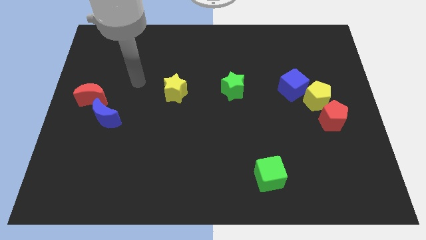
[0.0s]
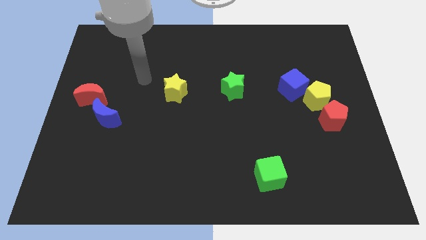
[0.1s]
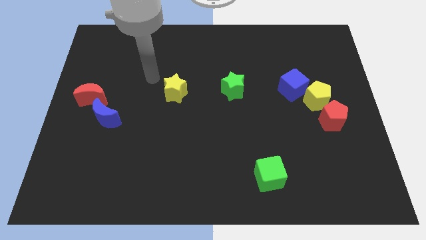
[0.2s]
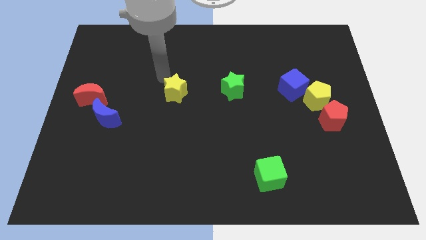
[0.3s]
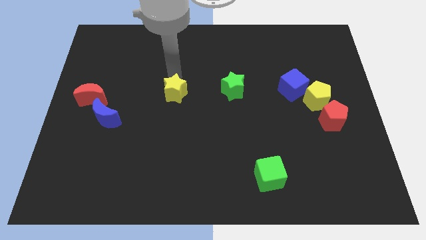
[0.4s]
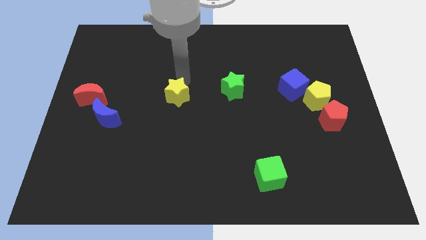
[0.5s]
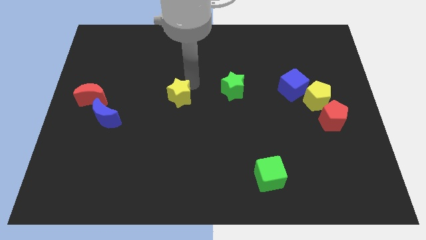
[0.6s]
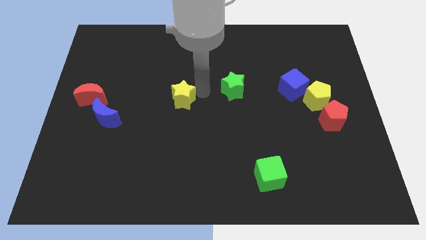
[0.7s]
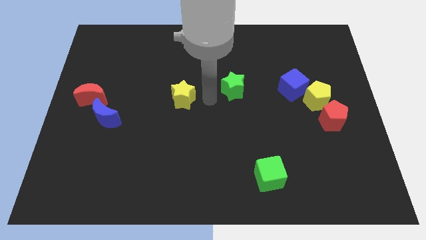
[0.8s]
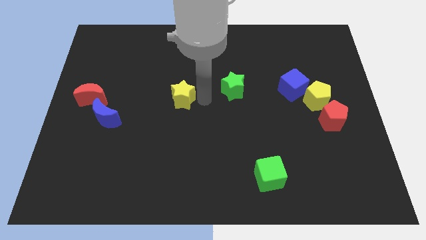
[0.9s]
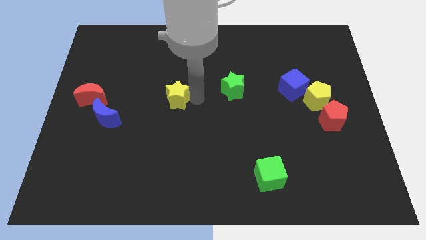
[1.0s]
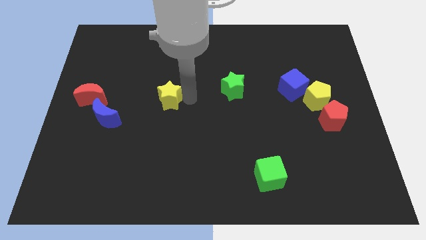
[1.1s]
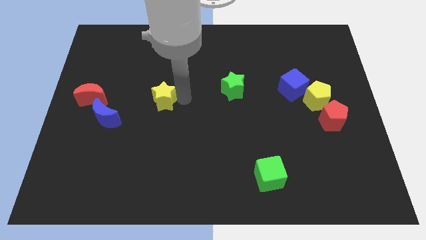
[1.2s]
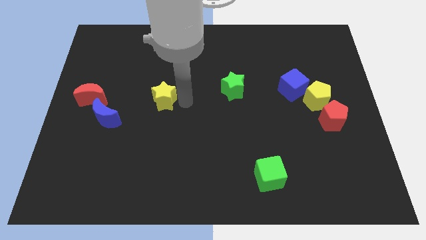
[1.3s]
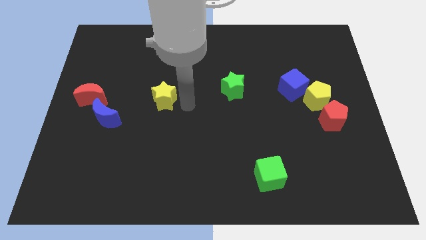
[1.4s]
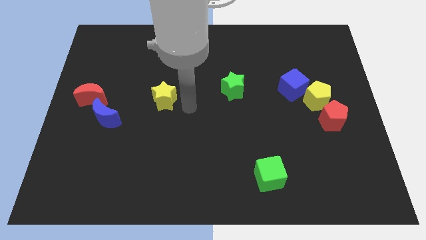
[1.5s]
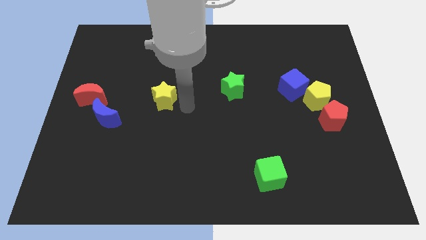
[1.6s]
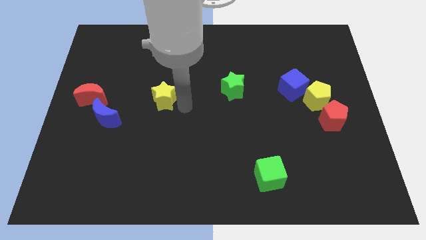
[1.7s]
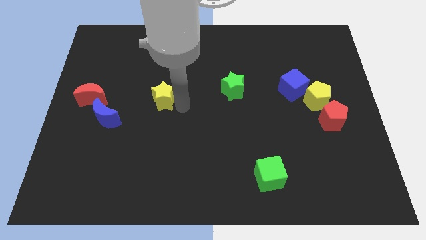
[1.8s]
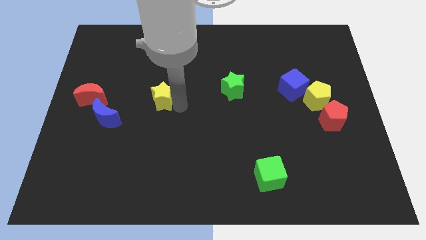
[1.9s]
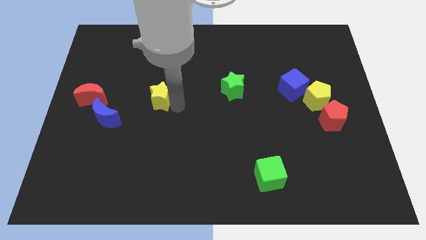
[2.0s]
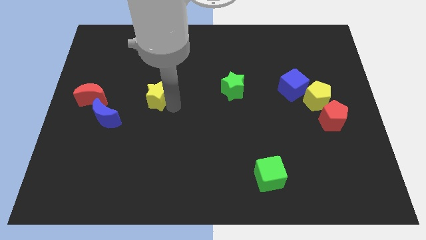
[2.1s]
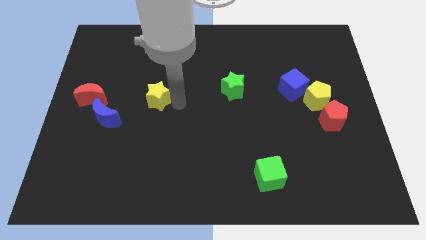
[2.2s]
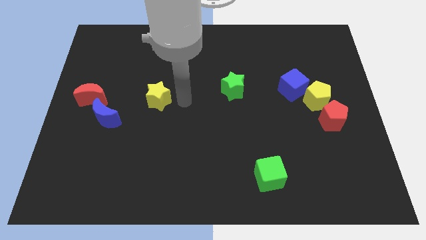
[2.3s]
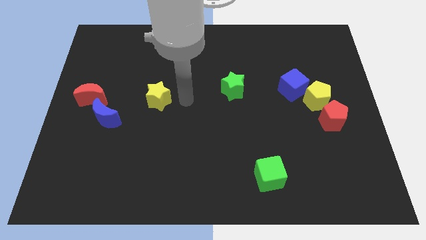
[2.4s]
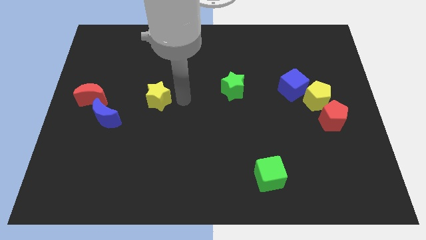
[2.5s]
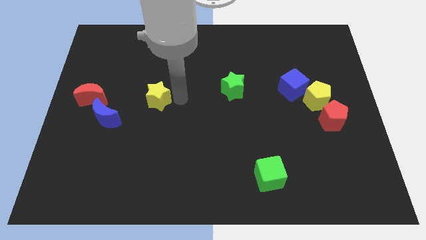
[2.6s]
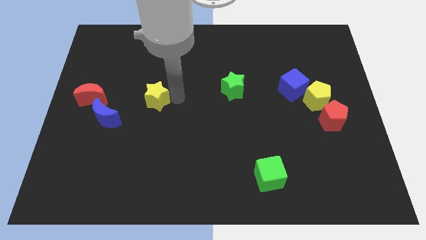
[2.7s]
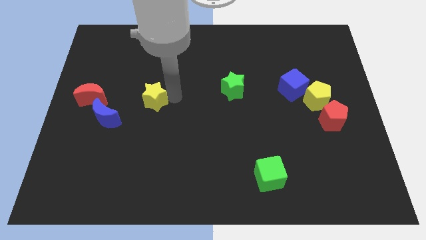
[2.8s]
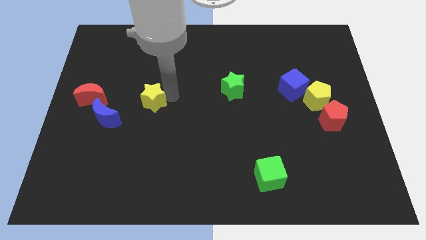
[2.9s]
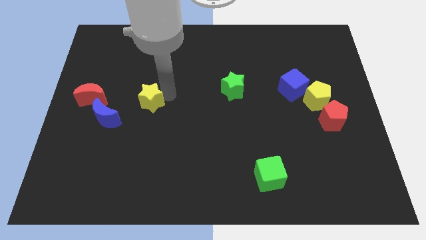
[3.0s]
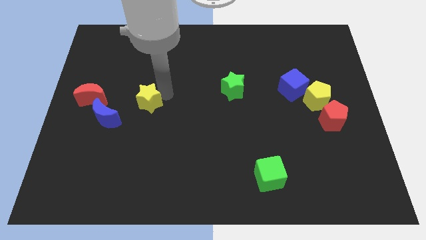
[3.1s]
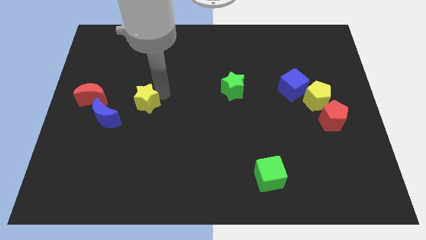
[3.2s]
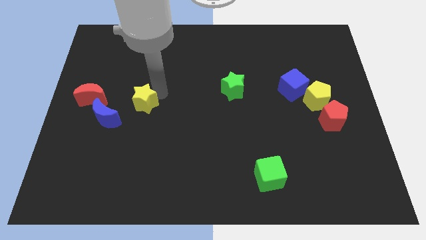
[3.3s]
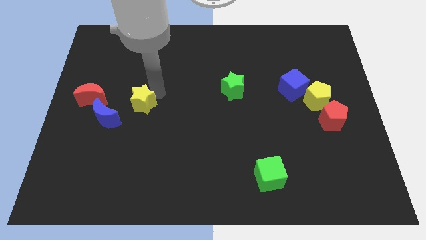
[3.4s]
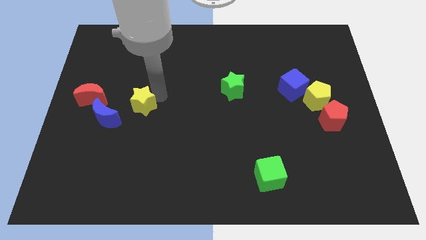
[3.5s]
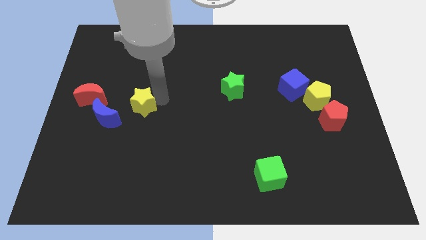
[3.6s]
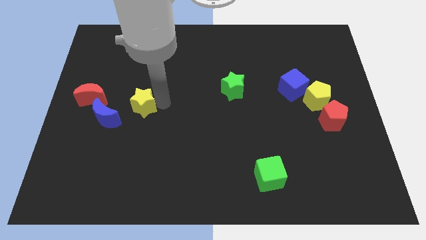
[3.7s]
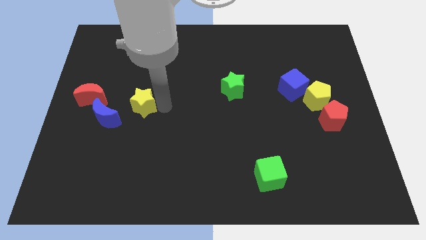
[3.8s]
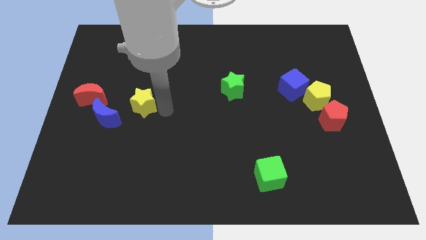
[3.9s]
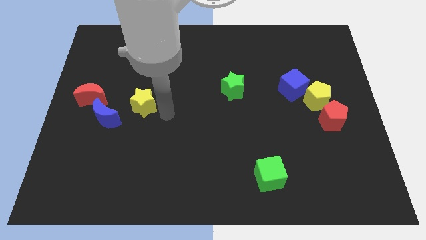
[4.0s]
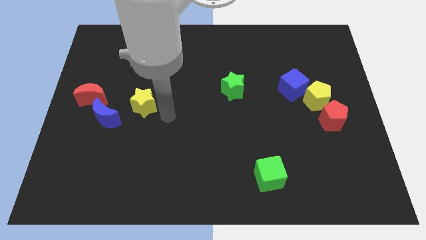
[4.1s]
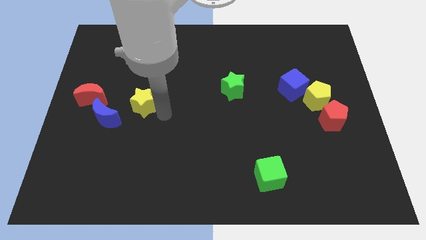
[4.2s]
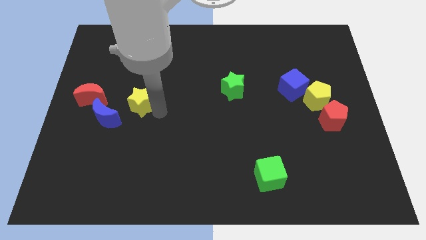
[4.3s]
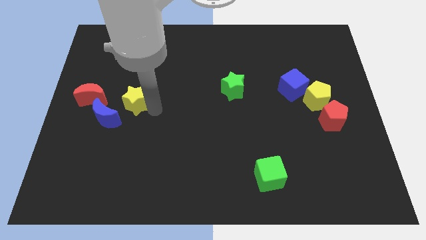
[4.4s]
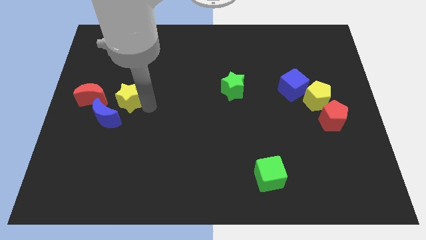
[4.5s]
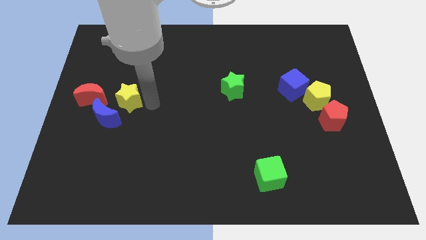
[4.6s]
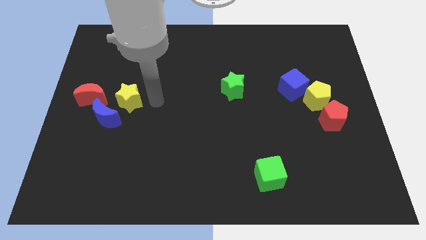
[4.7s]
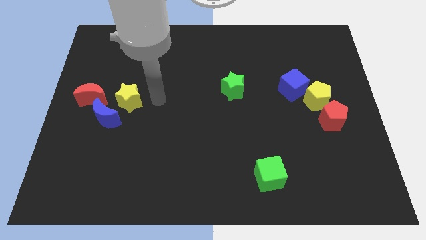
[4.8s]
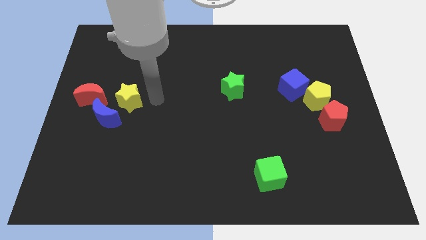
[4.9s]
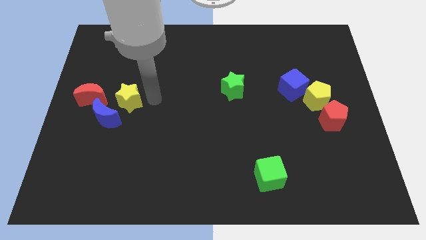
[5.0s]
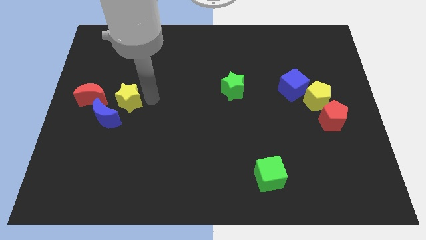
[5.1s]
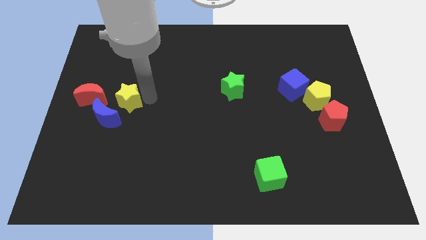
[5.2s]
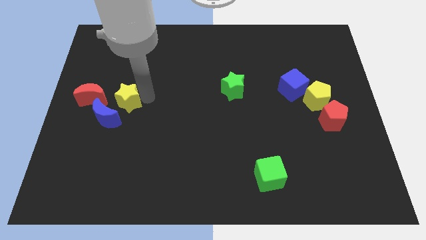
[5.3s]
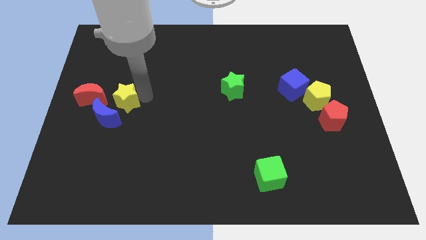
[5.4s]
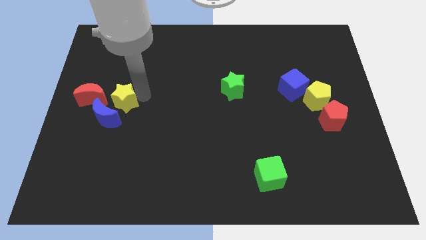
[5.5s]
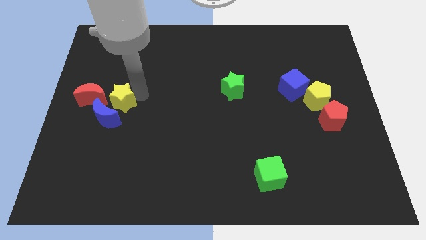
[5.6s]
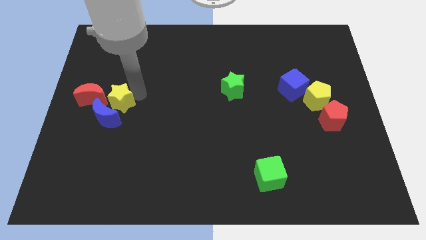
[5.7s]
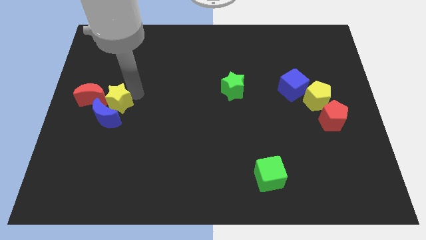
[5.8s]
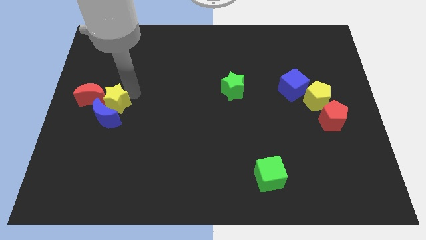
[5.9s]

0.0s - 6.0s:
slide the yellow star towards the red moon

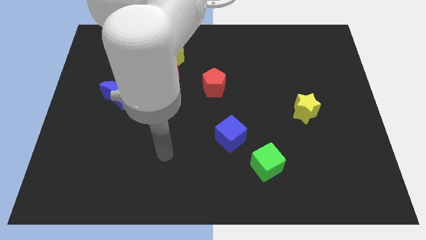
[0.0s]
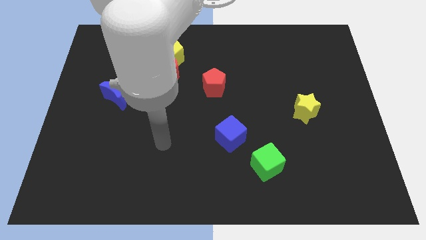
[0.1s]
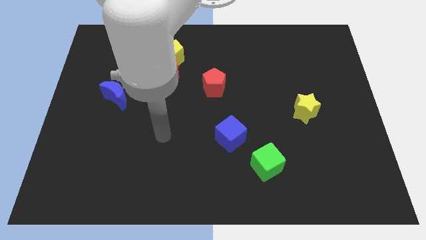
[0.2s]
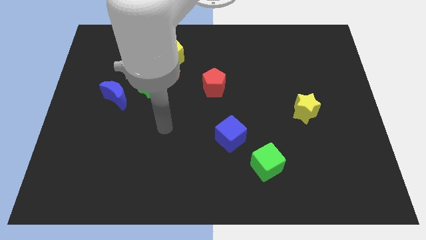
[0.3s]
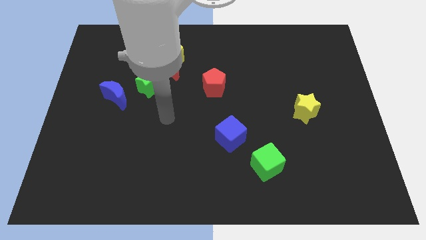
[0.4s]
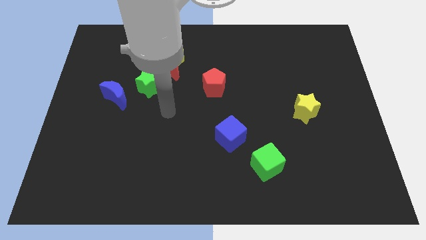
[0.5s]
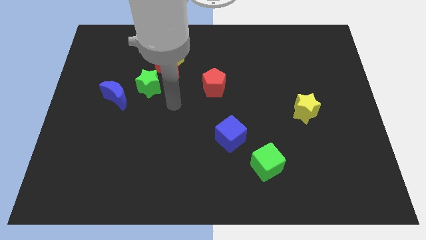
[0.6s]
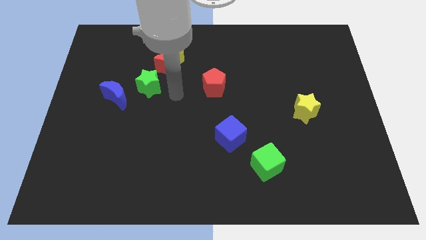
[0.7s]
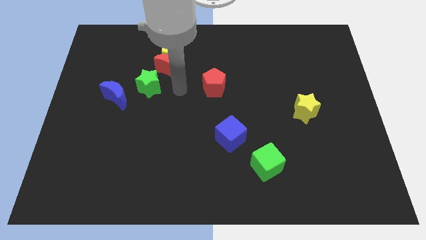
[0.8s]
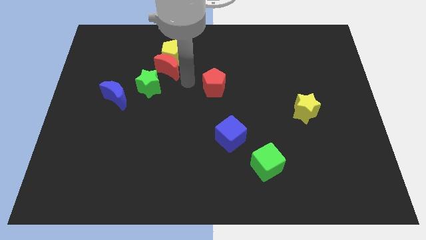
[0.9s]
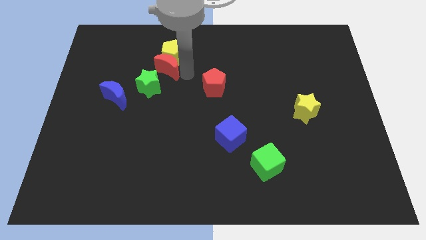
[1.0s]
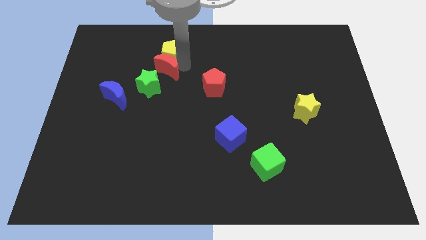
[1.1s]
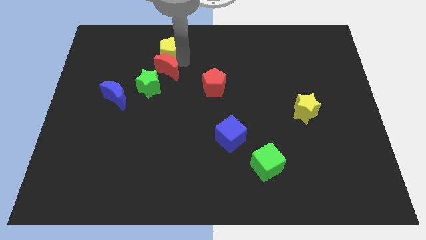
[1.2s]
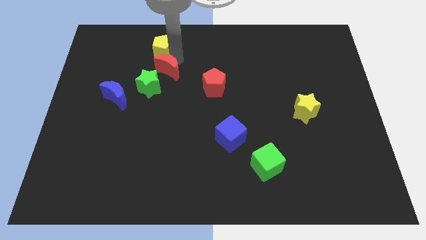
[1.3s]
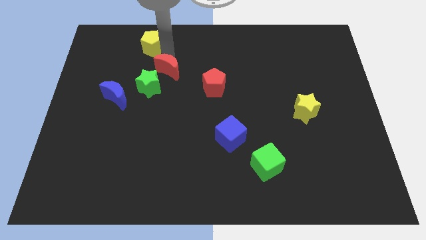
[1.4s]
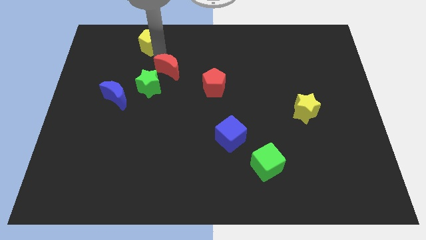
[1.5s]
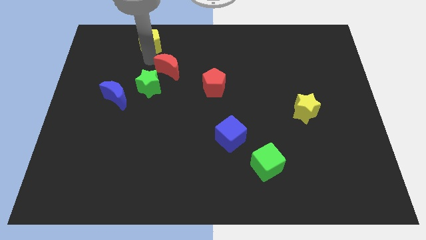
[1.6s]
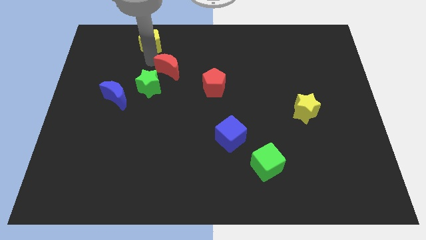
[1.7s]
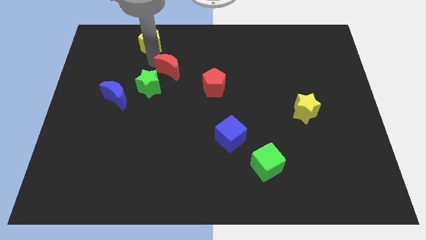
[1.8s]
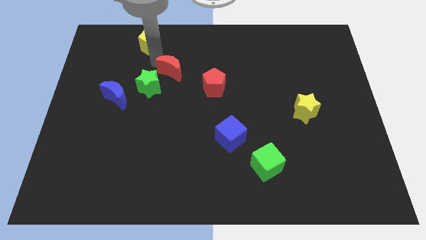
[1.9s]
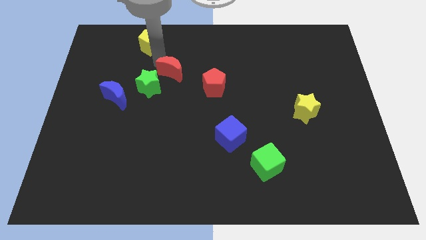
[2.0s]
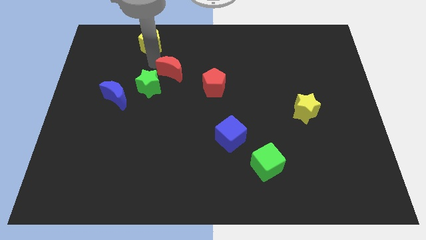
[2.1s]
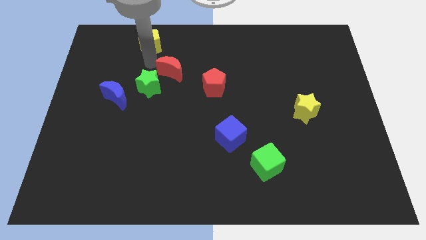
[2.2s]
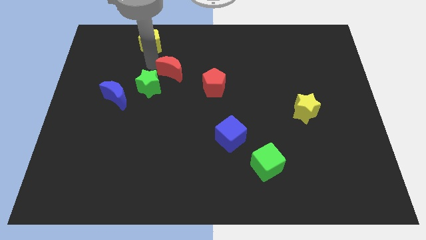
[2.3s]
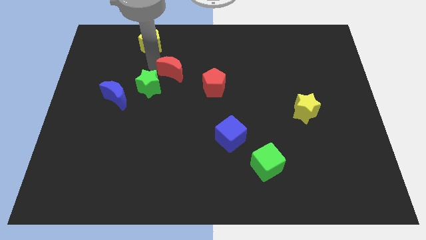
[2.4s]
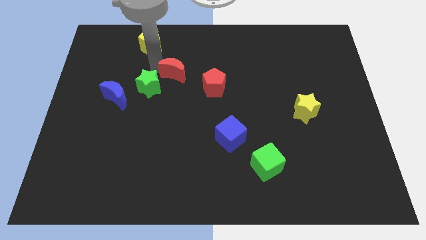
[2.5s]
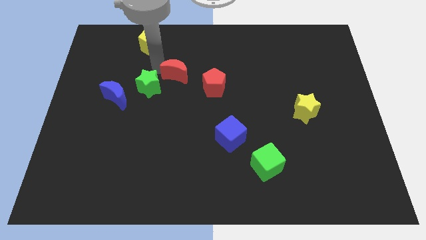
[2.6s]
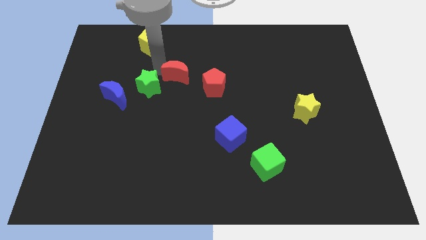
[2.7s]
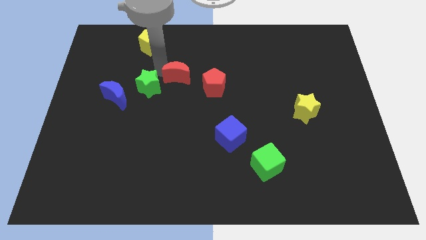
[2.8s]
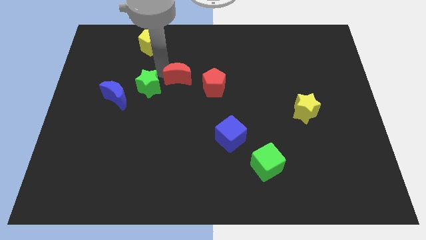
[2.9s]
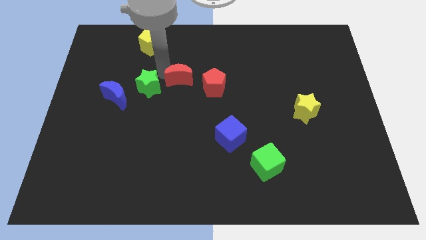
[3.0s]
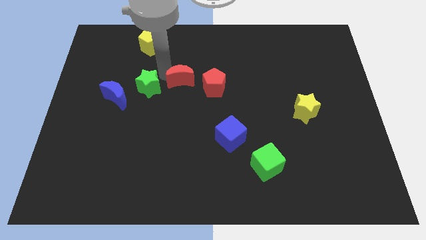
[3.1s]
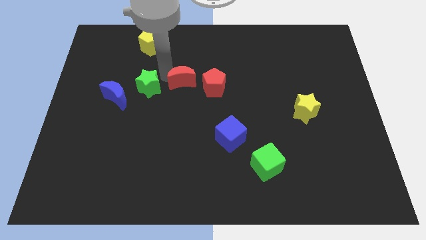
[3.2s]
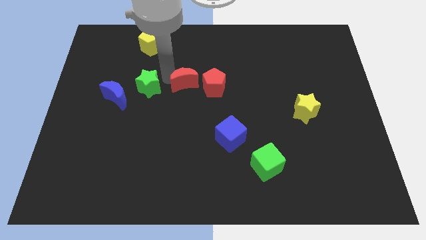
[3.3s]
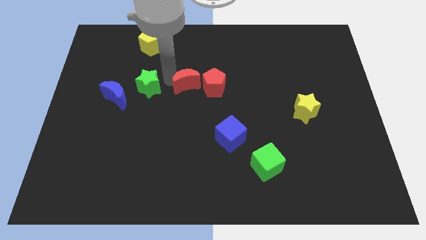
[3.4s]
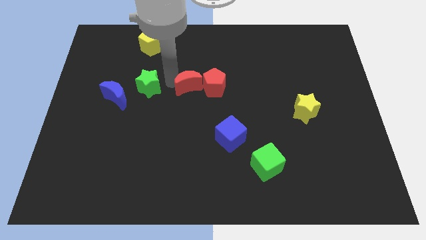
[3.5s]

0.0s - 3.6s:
move the red moon towards the red pentagon
